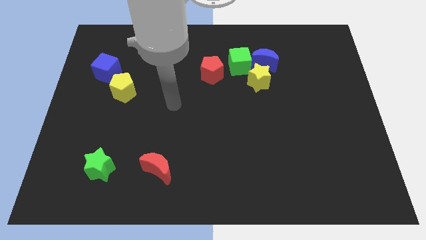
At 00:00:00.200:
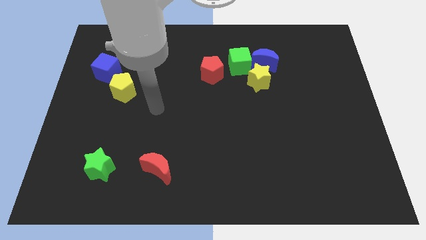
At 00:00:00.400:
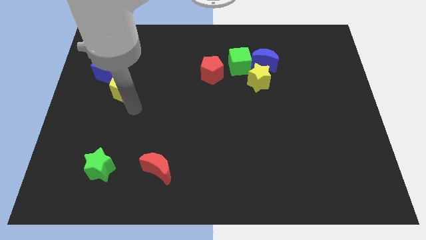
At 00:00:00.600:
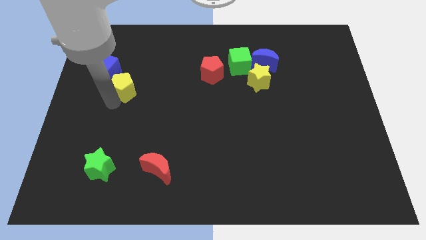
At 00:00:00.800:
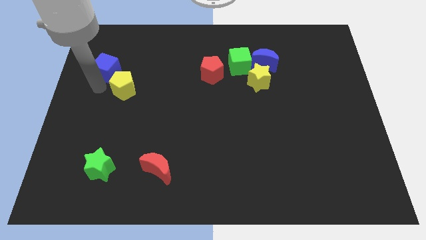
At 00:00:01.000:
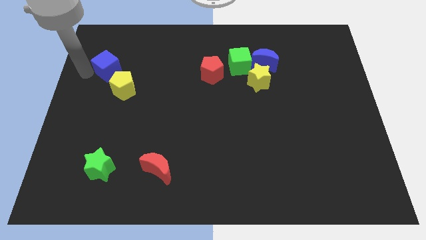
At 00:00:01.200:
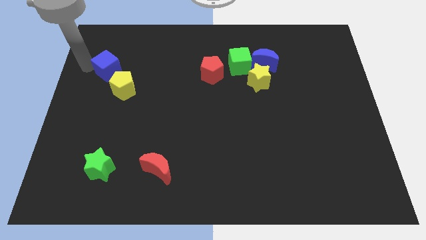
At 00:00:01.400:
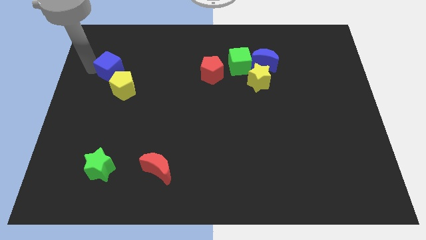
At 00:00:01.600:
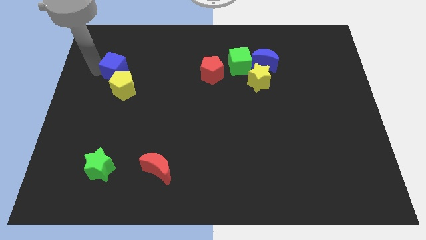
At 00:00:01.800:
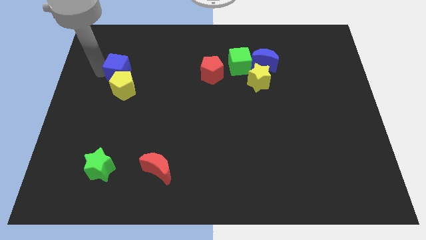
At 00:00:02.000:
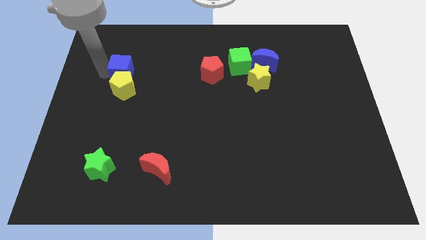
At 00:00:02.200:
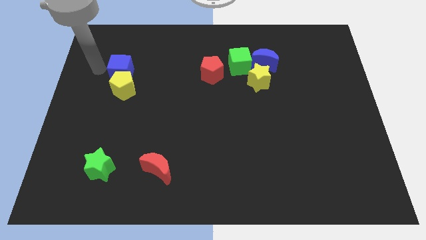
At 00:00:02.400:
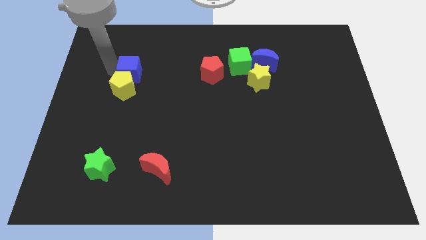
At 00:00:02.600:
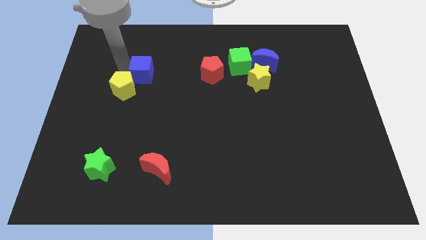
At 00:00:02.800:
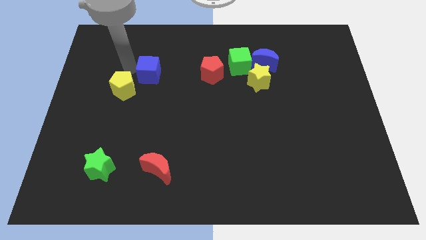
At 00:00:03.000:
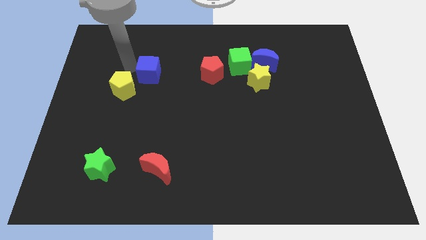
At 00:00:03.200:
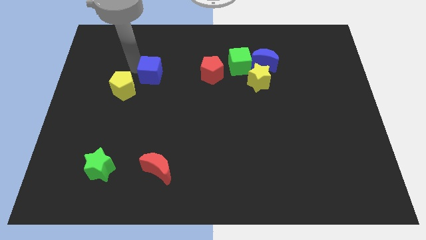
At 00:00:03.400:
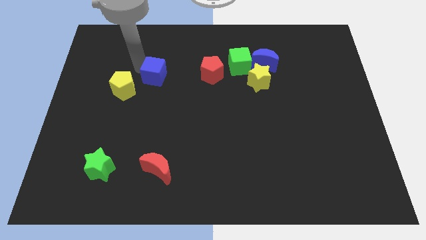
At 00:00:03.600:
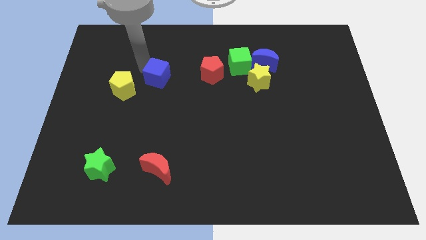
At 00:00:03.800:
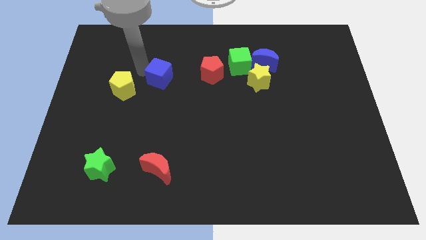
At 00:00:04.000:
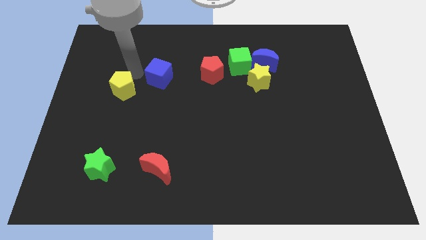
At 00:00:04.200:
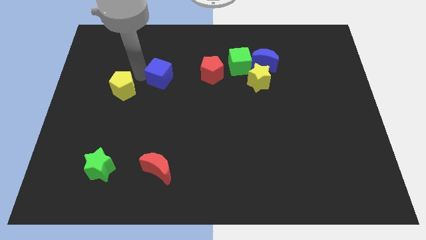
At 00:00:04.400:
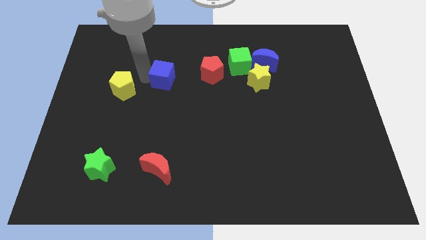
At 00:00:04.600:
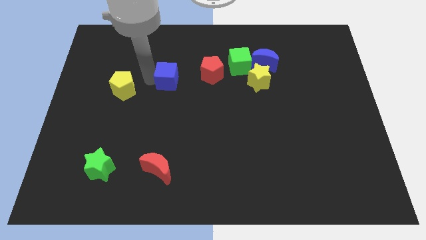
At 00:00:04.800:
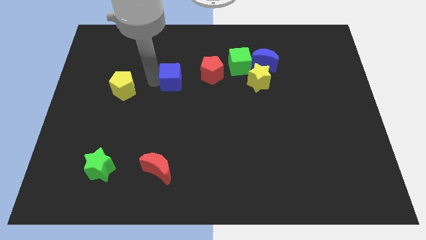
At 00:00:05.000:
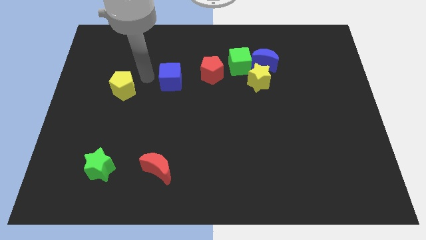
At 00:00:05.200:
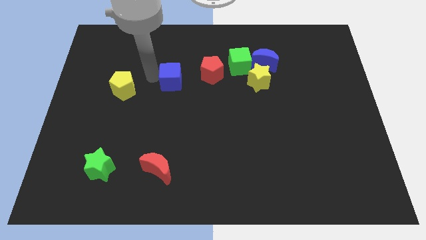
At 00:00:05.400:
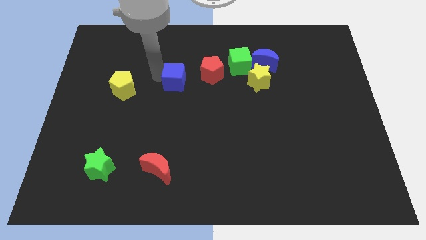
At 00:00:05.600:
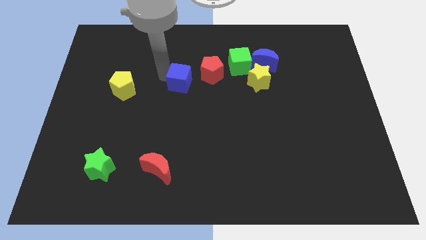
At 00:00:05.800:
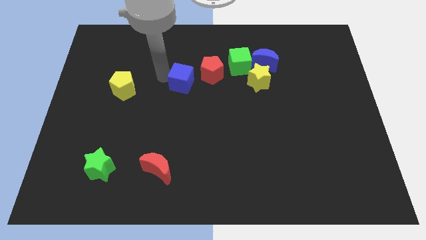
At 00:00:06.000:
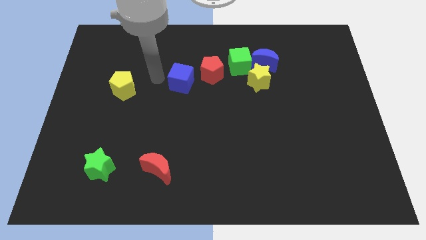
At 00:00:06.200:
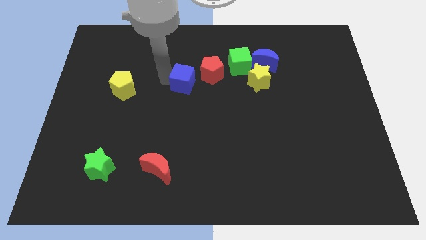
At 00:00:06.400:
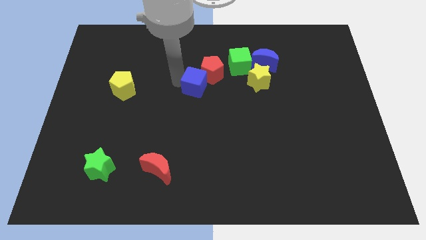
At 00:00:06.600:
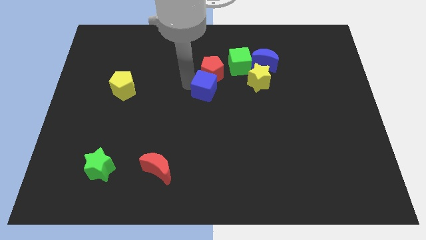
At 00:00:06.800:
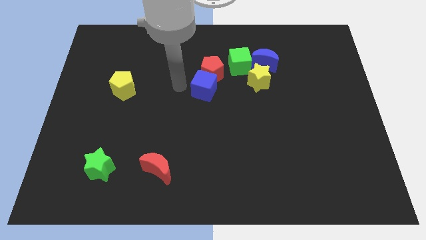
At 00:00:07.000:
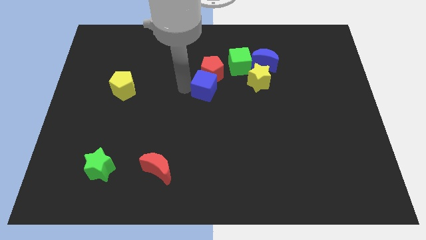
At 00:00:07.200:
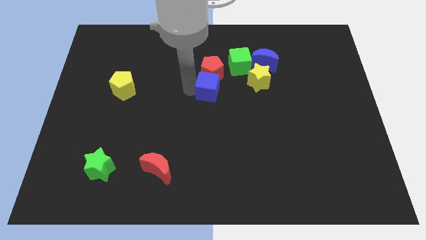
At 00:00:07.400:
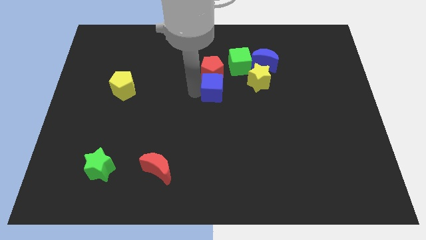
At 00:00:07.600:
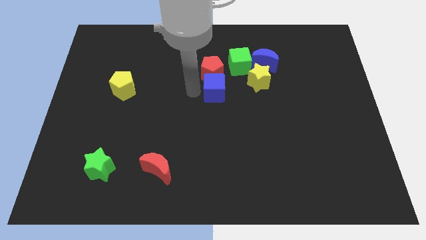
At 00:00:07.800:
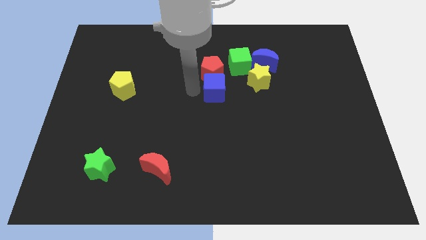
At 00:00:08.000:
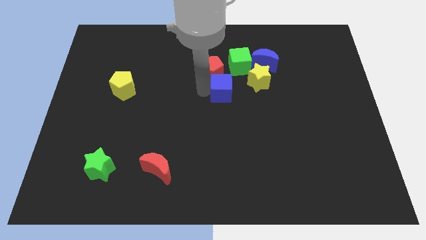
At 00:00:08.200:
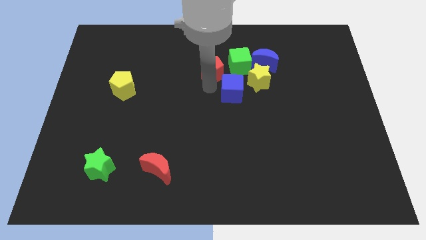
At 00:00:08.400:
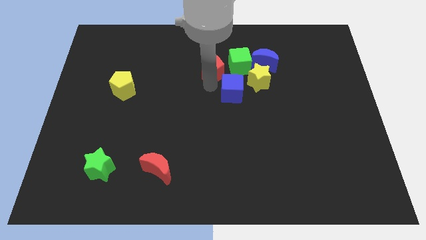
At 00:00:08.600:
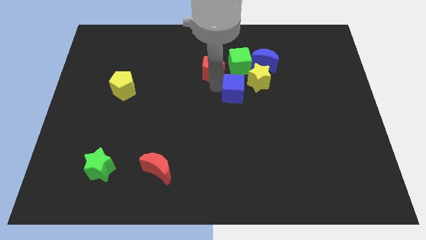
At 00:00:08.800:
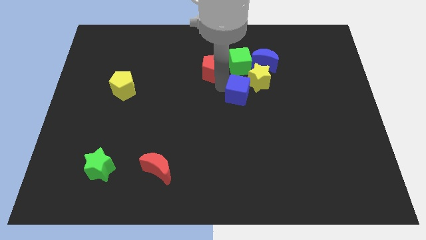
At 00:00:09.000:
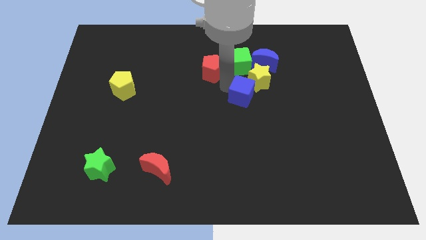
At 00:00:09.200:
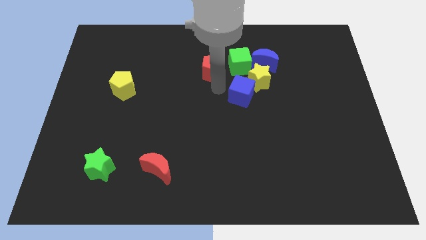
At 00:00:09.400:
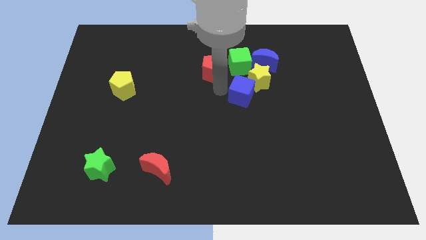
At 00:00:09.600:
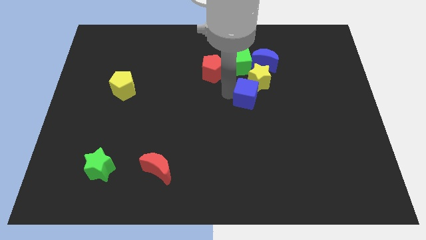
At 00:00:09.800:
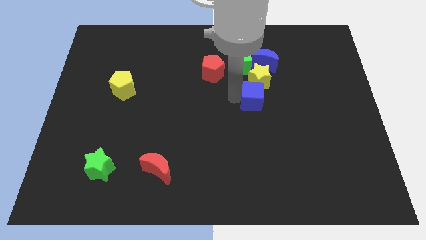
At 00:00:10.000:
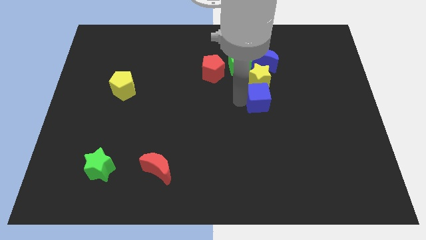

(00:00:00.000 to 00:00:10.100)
put the blue cube to the bottom right side of the yellow star

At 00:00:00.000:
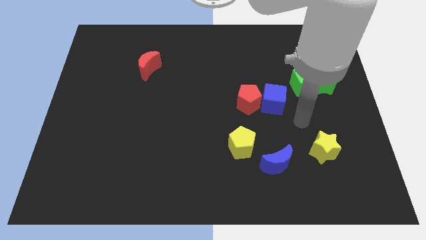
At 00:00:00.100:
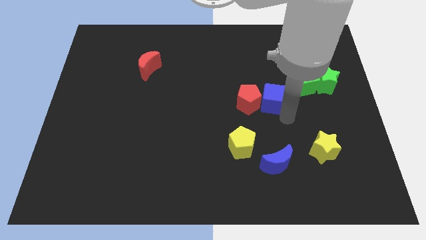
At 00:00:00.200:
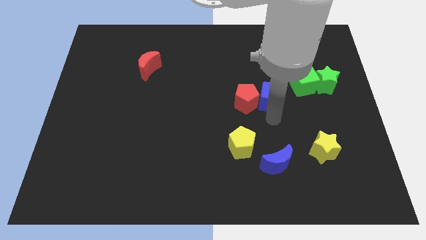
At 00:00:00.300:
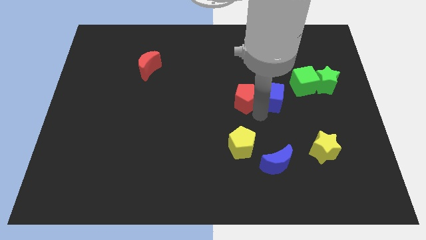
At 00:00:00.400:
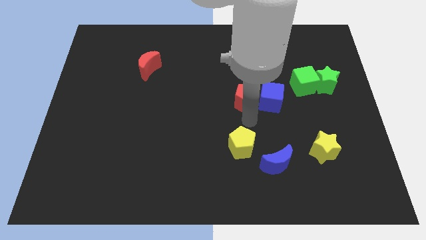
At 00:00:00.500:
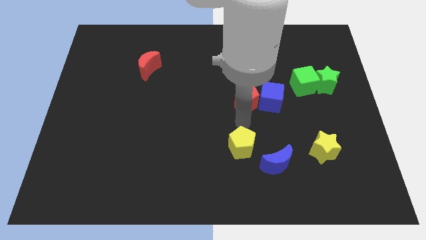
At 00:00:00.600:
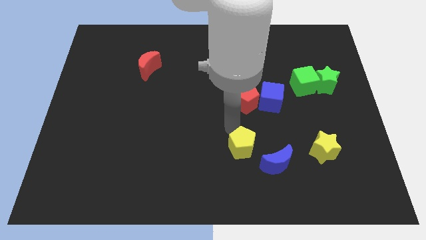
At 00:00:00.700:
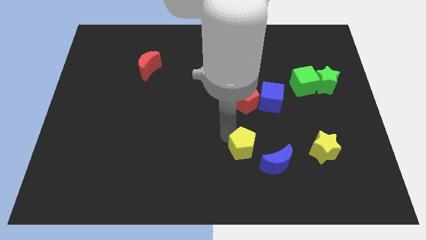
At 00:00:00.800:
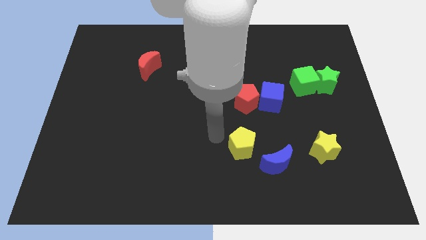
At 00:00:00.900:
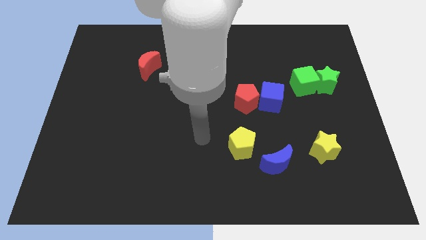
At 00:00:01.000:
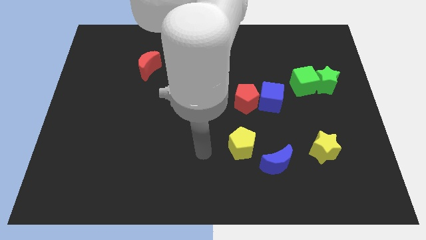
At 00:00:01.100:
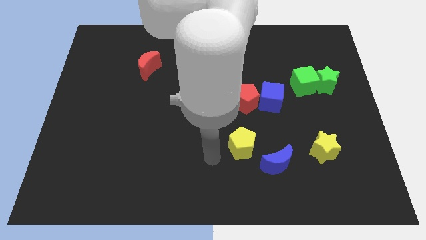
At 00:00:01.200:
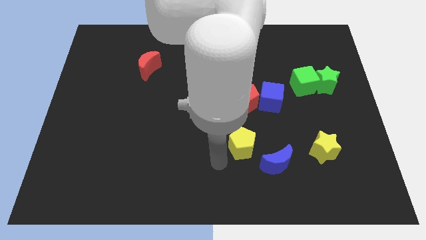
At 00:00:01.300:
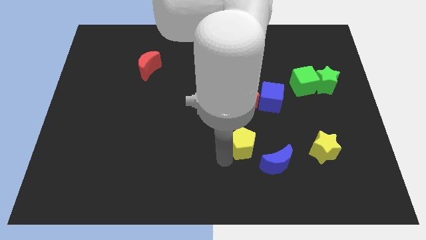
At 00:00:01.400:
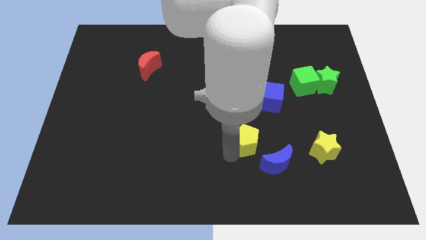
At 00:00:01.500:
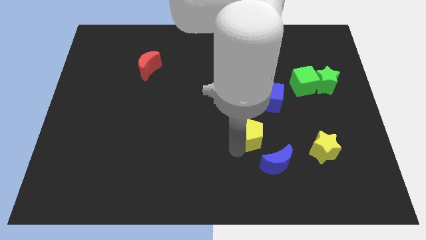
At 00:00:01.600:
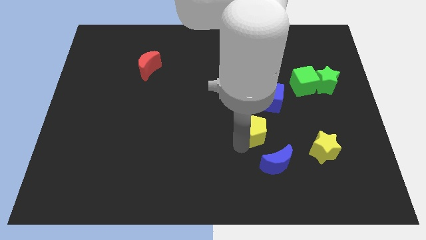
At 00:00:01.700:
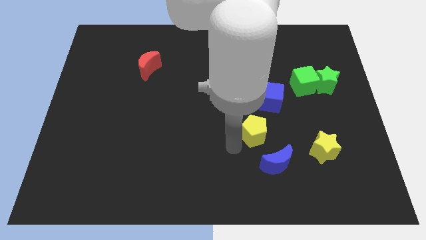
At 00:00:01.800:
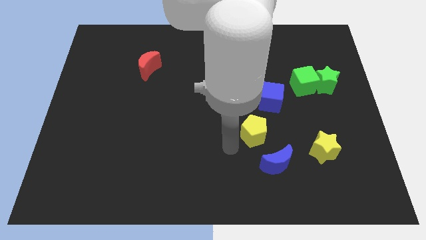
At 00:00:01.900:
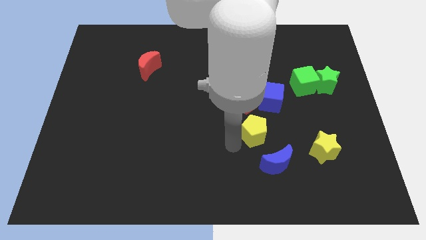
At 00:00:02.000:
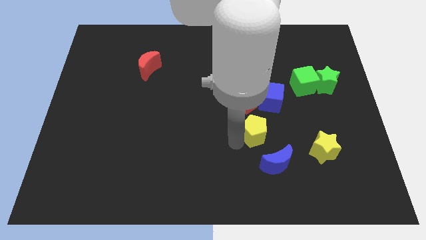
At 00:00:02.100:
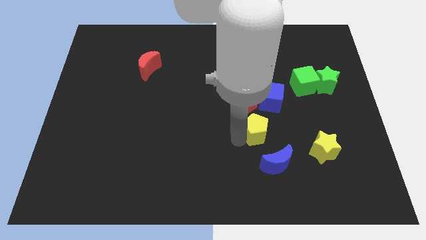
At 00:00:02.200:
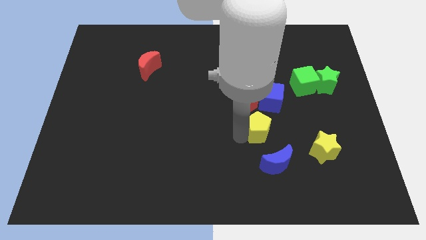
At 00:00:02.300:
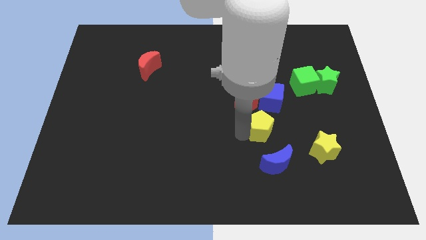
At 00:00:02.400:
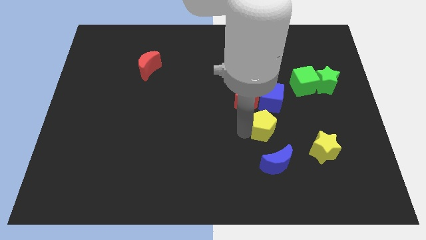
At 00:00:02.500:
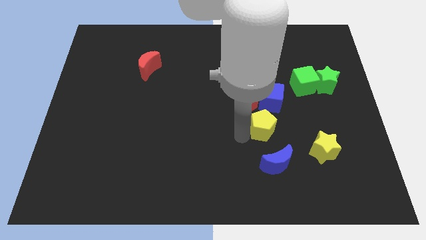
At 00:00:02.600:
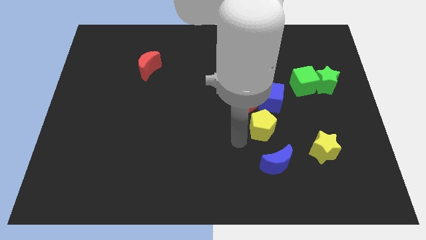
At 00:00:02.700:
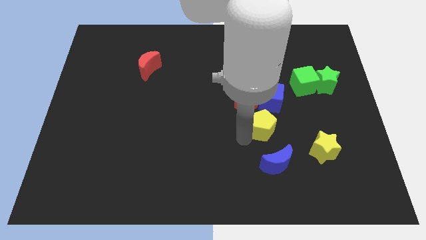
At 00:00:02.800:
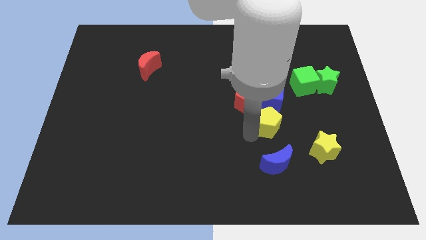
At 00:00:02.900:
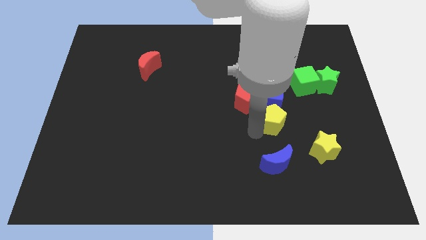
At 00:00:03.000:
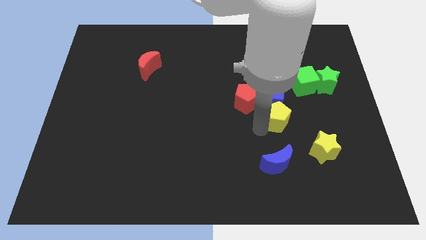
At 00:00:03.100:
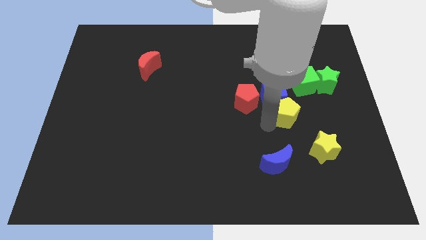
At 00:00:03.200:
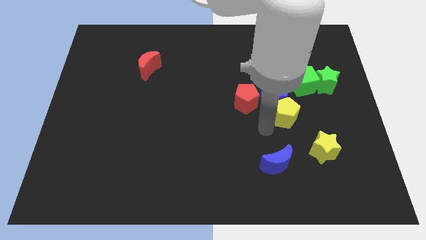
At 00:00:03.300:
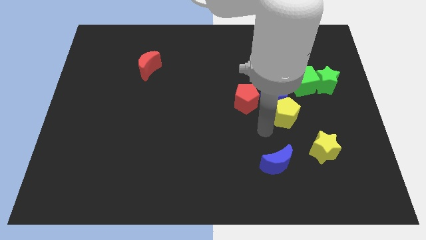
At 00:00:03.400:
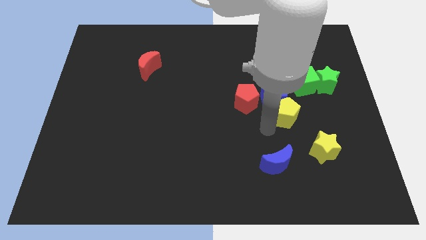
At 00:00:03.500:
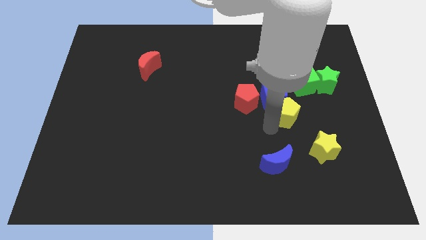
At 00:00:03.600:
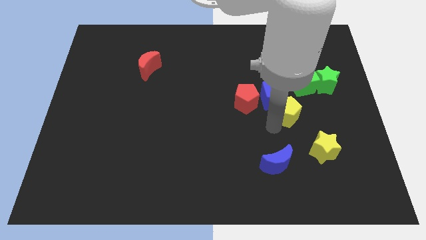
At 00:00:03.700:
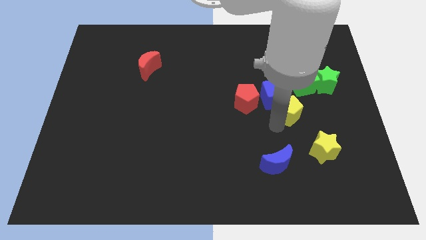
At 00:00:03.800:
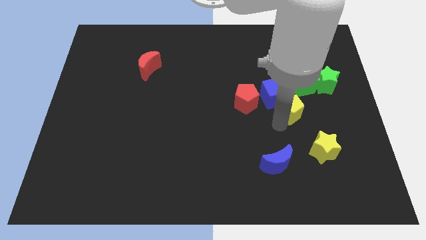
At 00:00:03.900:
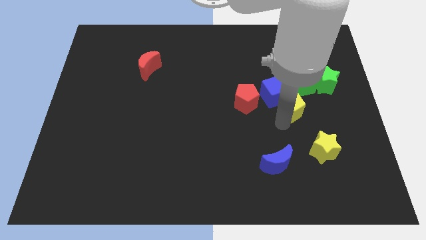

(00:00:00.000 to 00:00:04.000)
put the yellow pentagon to the bottom left of the green star
